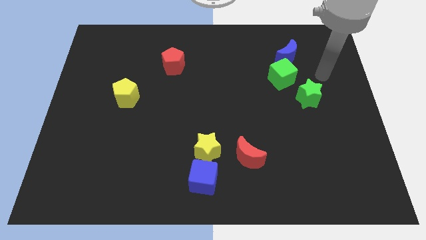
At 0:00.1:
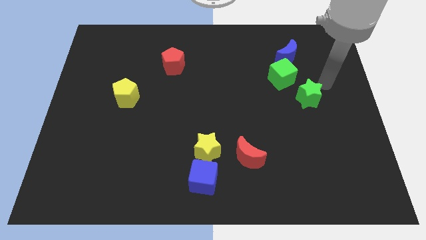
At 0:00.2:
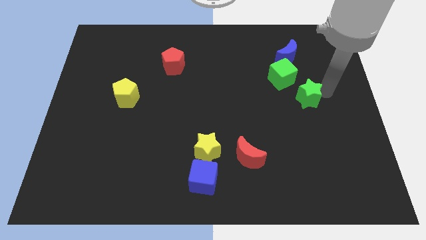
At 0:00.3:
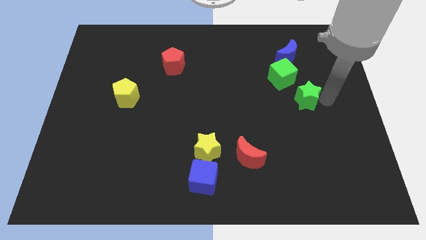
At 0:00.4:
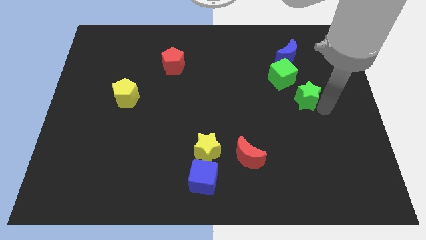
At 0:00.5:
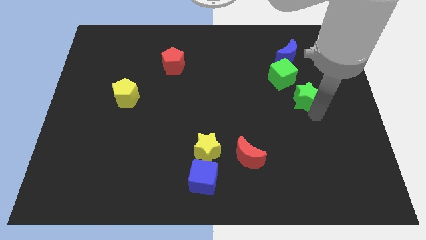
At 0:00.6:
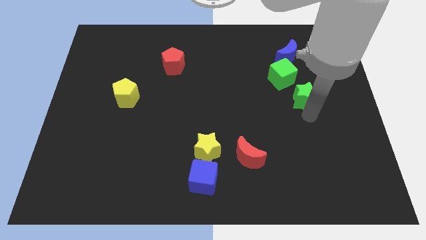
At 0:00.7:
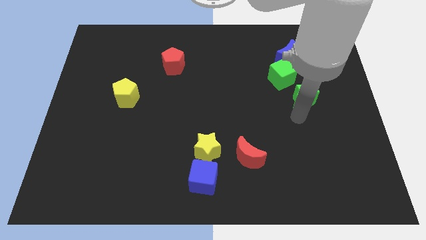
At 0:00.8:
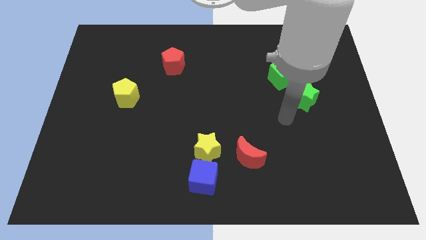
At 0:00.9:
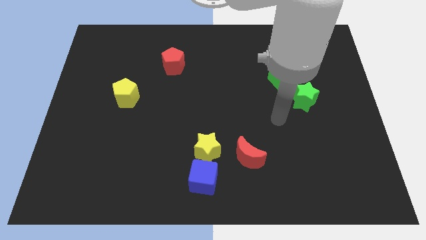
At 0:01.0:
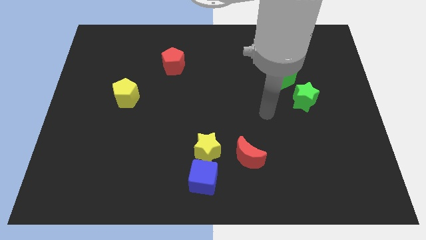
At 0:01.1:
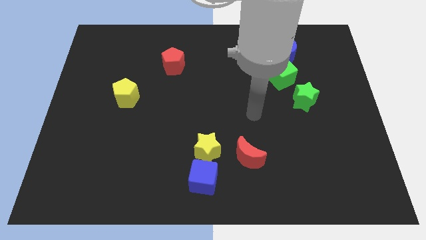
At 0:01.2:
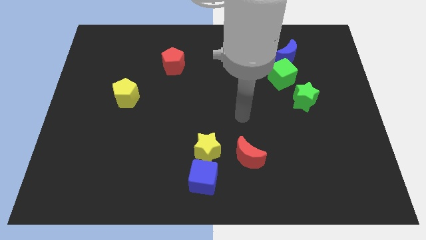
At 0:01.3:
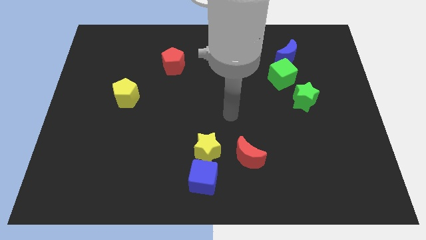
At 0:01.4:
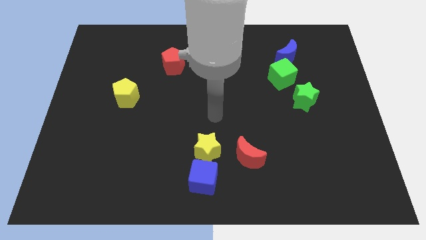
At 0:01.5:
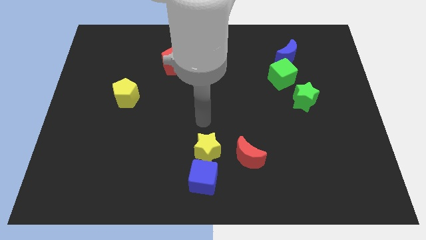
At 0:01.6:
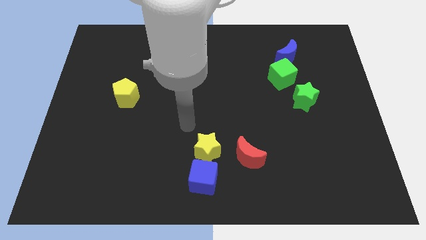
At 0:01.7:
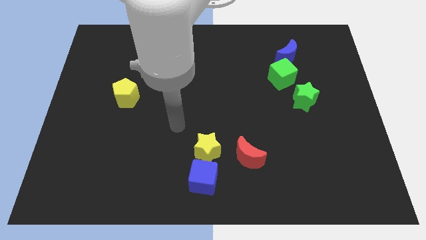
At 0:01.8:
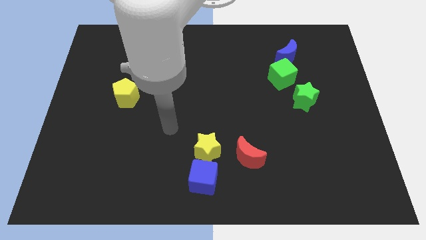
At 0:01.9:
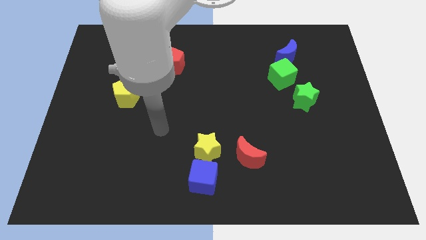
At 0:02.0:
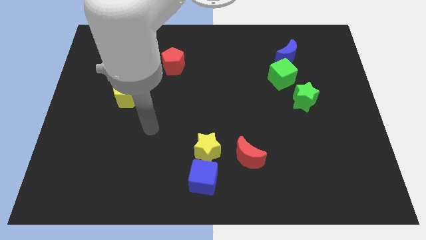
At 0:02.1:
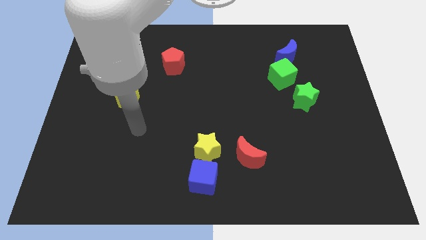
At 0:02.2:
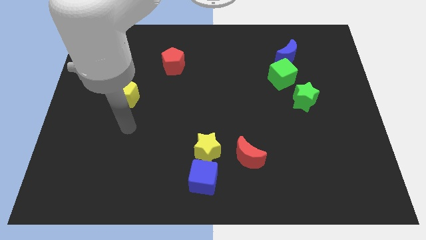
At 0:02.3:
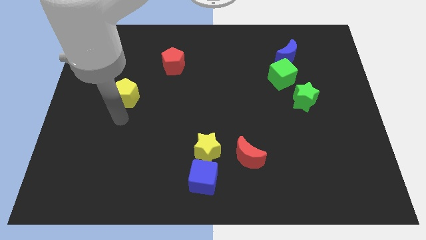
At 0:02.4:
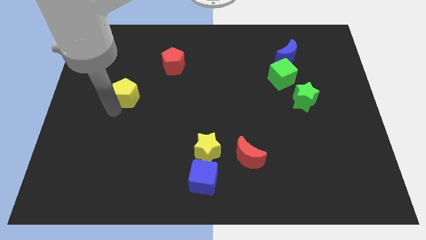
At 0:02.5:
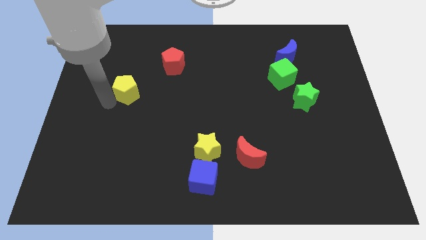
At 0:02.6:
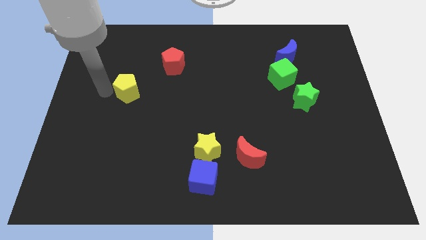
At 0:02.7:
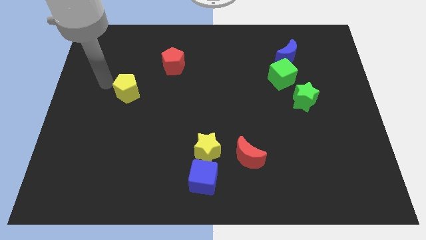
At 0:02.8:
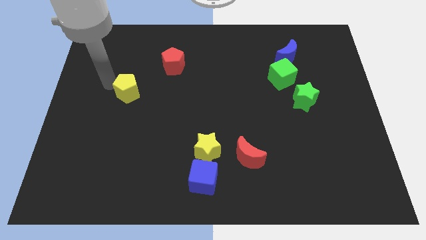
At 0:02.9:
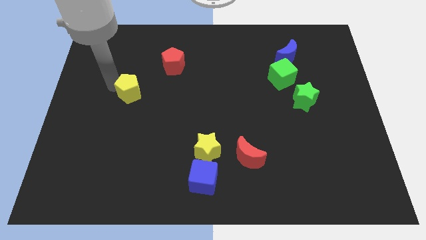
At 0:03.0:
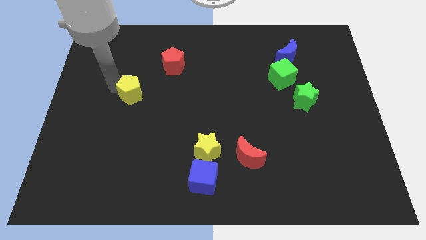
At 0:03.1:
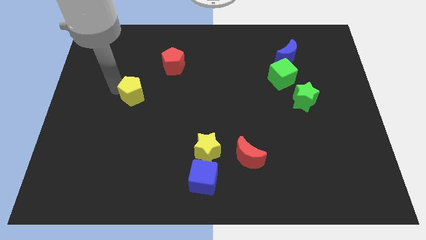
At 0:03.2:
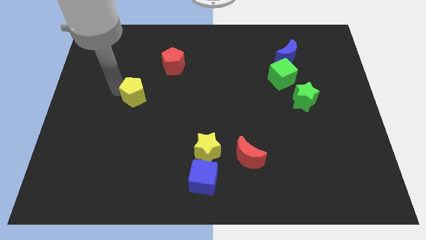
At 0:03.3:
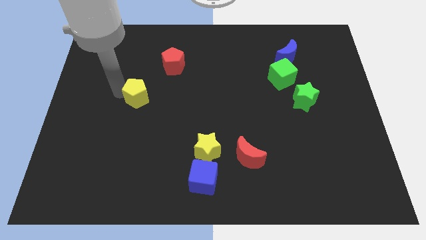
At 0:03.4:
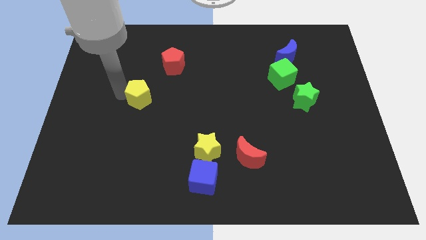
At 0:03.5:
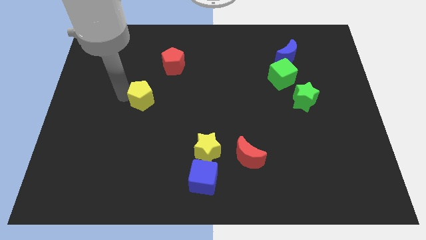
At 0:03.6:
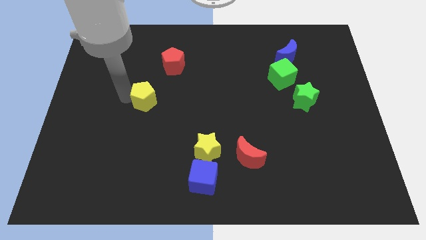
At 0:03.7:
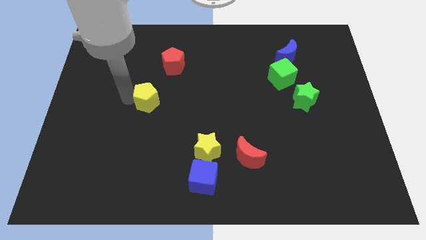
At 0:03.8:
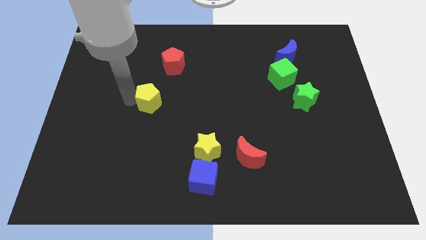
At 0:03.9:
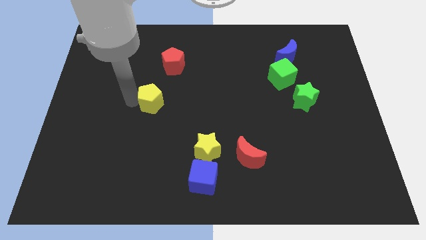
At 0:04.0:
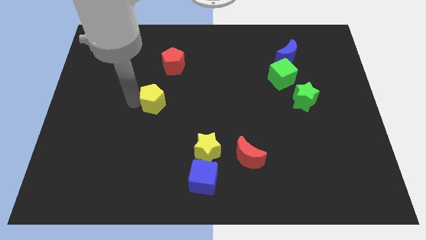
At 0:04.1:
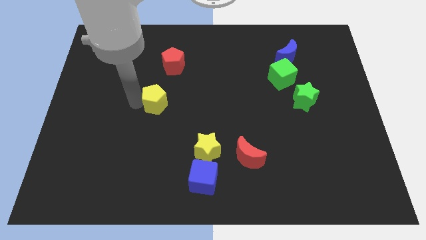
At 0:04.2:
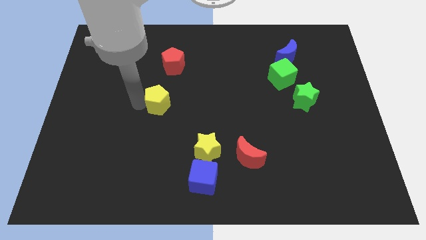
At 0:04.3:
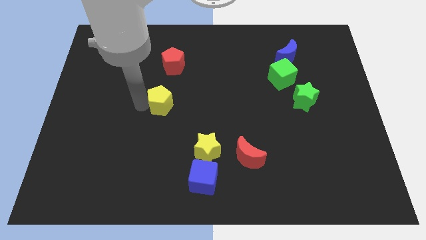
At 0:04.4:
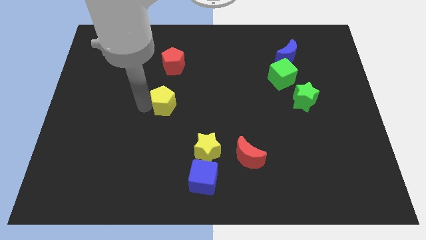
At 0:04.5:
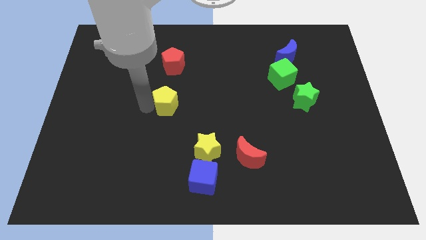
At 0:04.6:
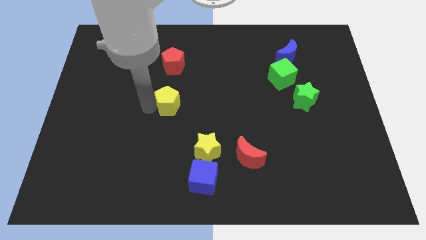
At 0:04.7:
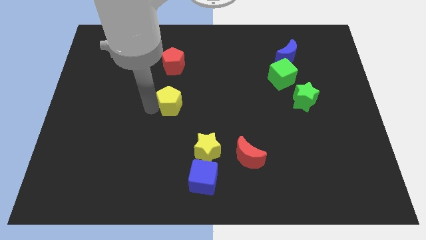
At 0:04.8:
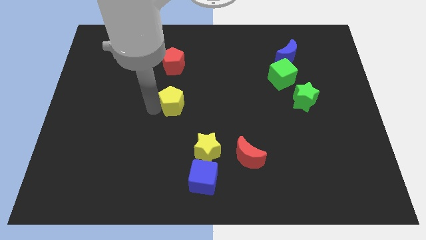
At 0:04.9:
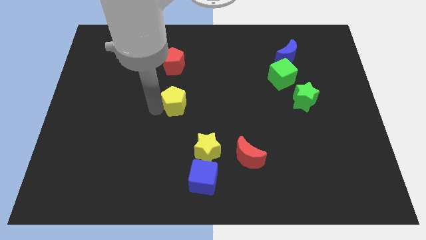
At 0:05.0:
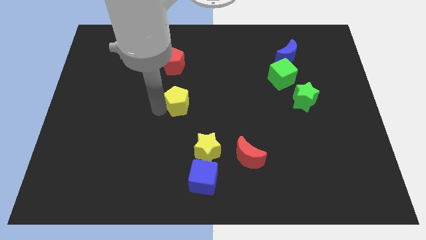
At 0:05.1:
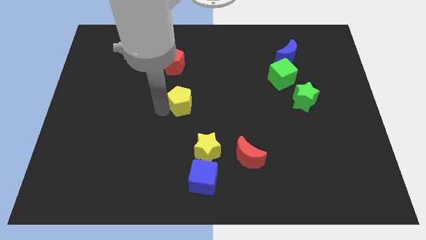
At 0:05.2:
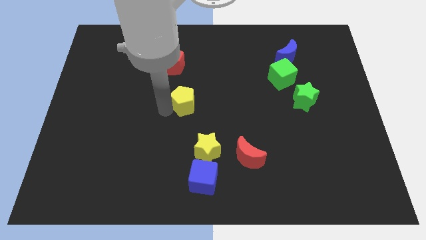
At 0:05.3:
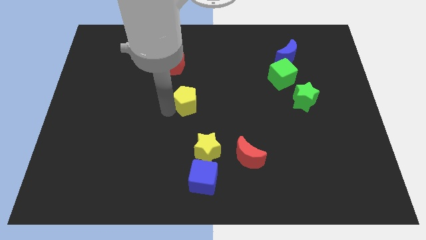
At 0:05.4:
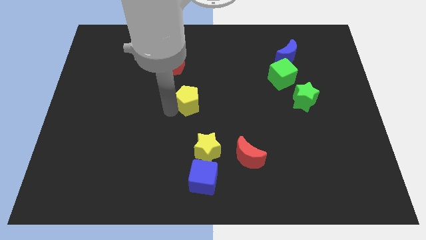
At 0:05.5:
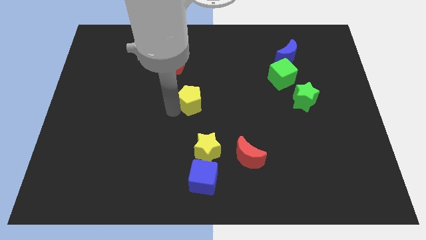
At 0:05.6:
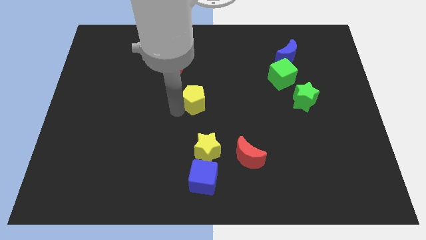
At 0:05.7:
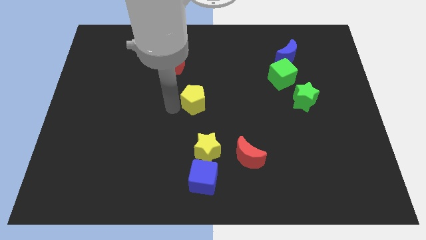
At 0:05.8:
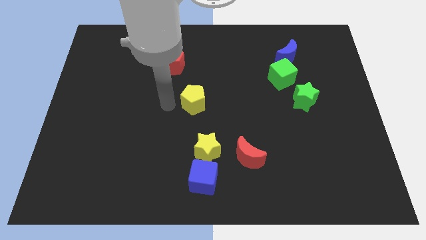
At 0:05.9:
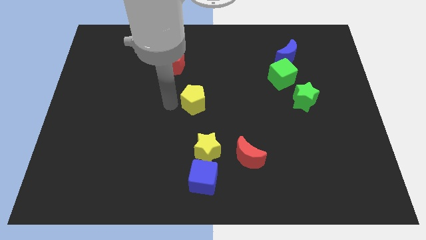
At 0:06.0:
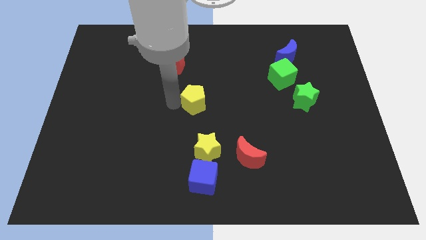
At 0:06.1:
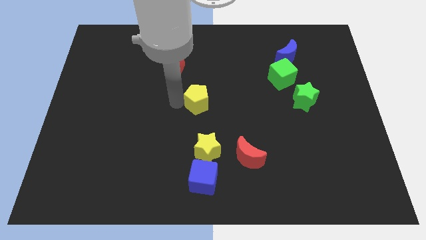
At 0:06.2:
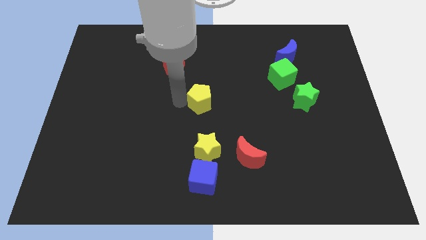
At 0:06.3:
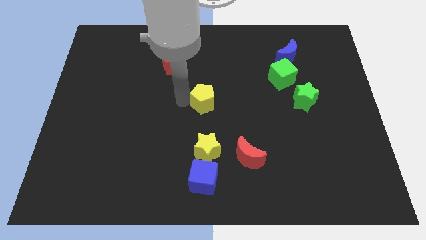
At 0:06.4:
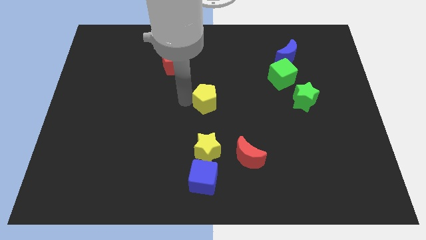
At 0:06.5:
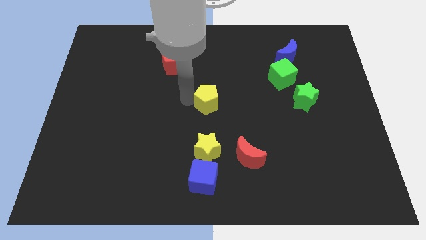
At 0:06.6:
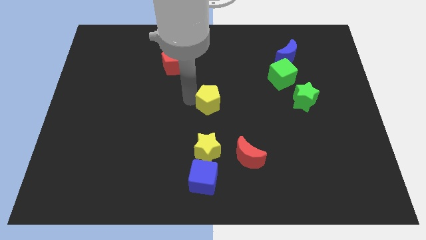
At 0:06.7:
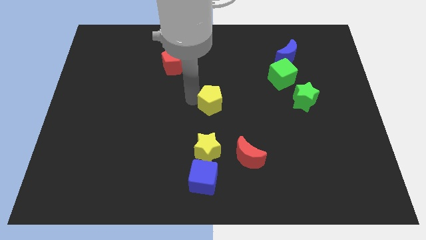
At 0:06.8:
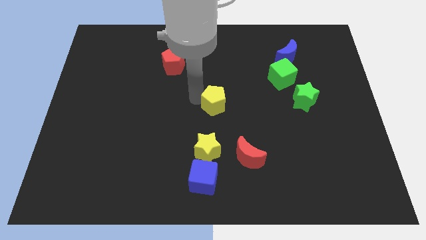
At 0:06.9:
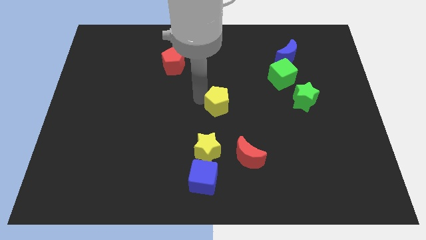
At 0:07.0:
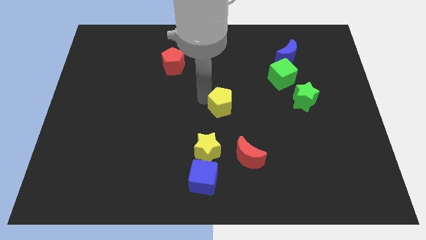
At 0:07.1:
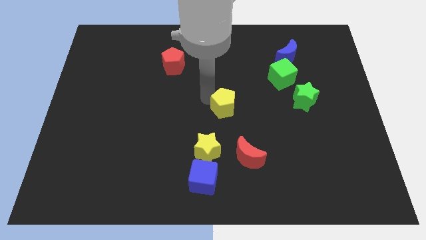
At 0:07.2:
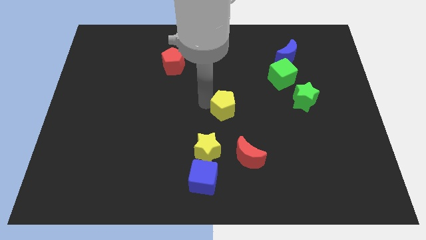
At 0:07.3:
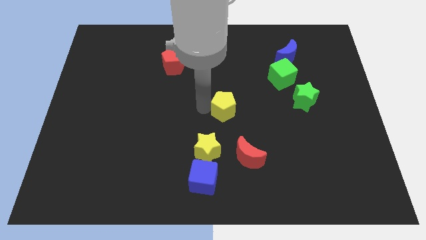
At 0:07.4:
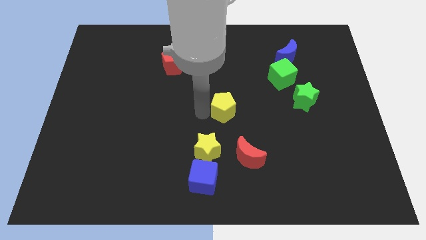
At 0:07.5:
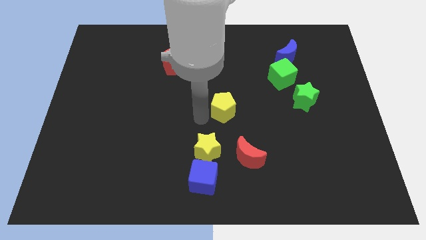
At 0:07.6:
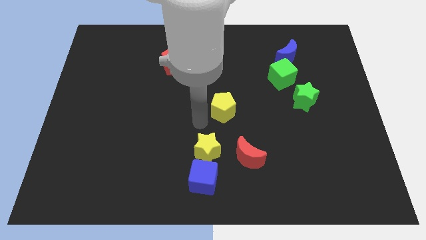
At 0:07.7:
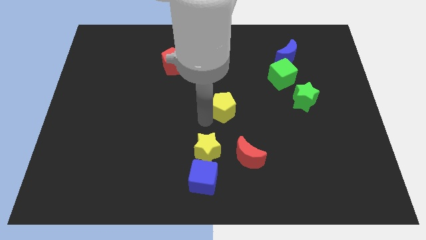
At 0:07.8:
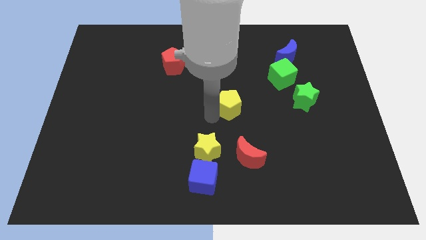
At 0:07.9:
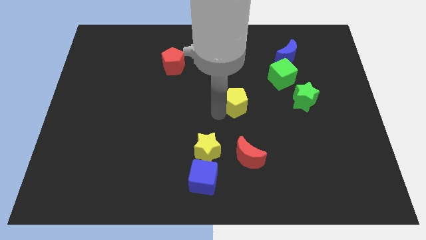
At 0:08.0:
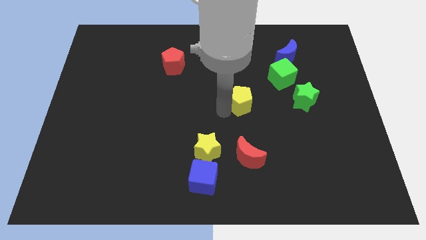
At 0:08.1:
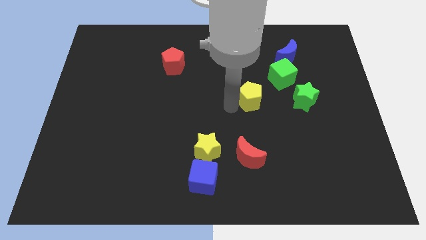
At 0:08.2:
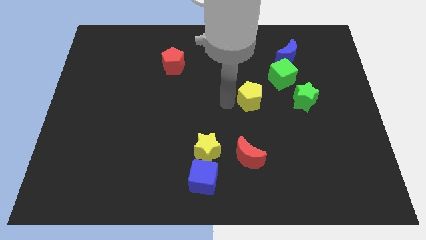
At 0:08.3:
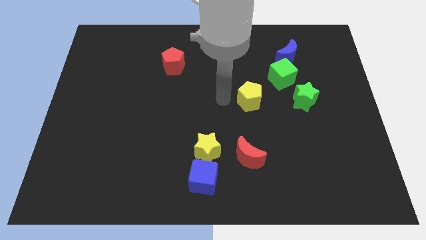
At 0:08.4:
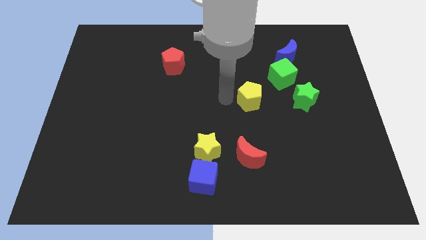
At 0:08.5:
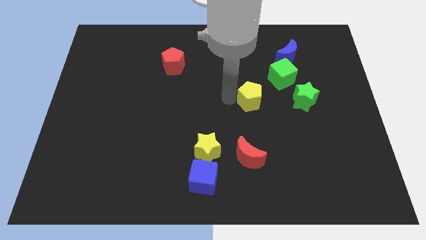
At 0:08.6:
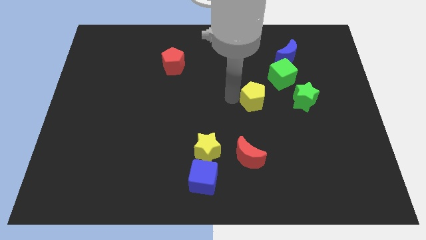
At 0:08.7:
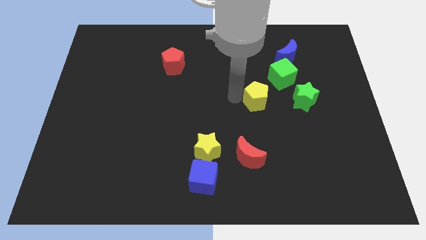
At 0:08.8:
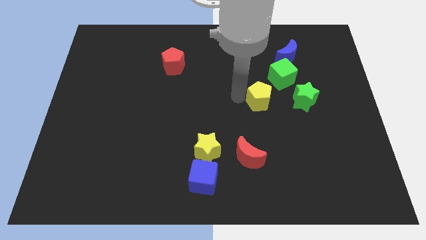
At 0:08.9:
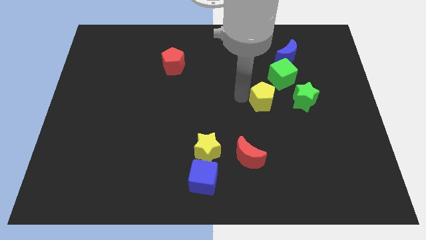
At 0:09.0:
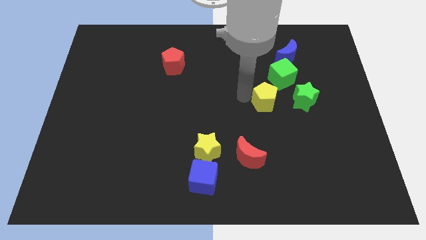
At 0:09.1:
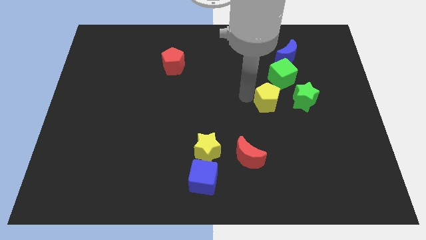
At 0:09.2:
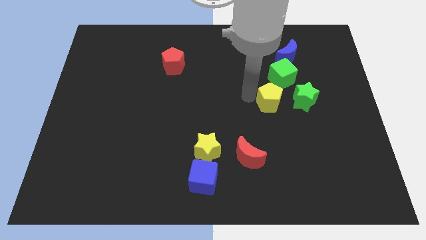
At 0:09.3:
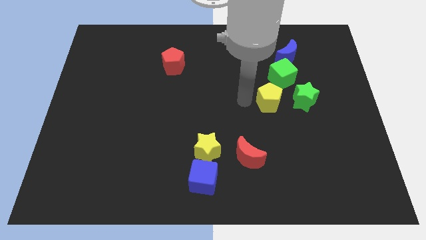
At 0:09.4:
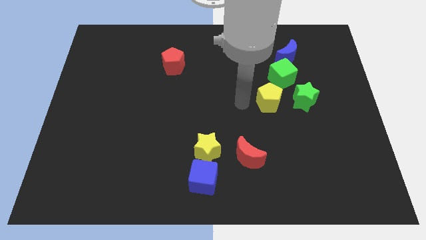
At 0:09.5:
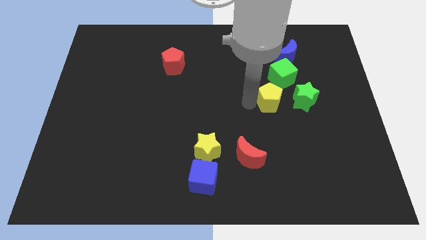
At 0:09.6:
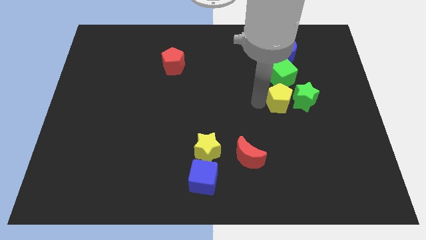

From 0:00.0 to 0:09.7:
move the yellow pentagon towards the green star
